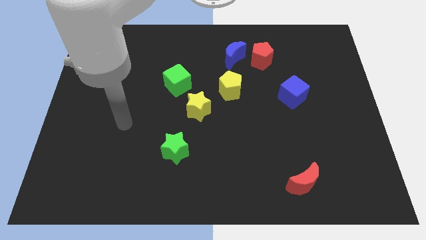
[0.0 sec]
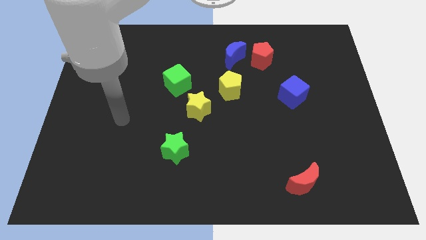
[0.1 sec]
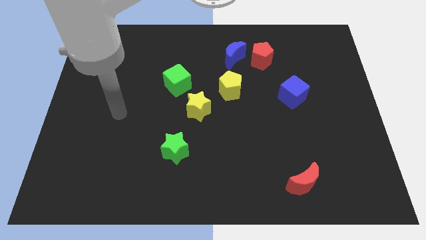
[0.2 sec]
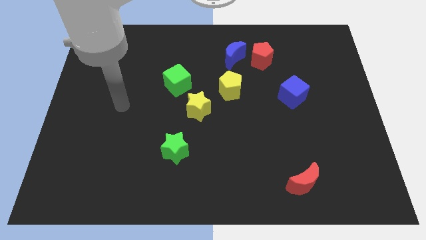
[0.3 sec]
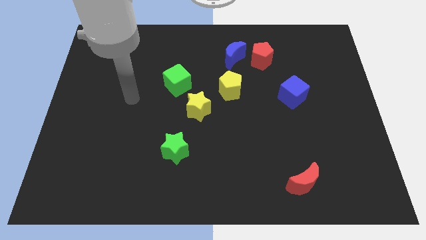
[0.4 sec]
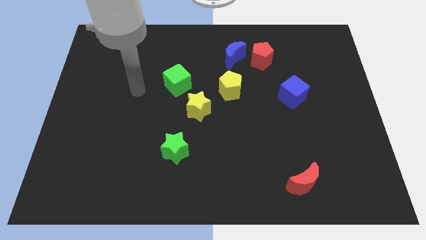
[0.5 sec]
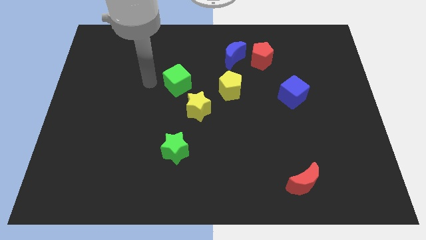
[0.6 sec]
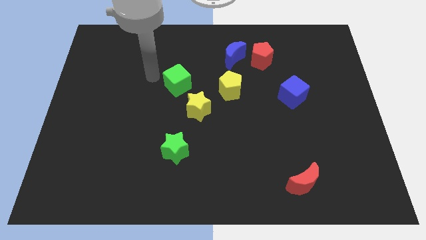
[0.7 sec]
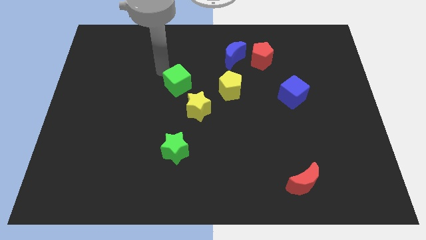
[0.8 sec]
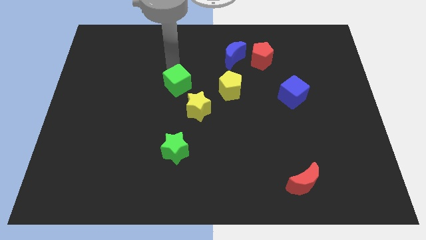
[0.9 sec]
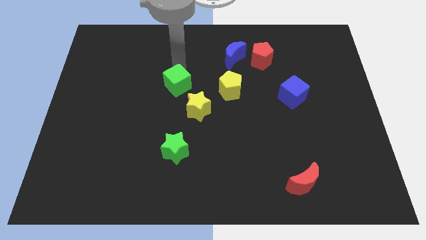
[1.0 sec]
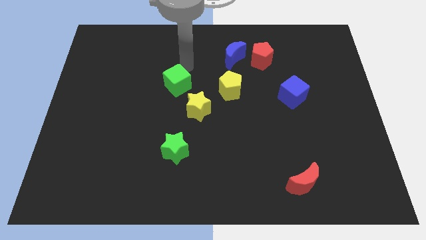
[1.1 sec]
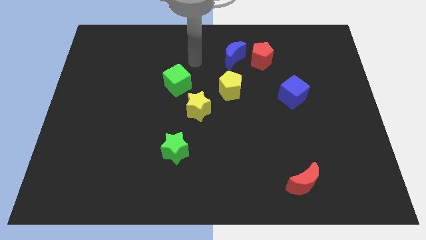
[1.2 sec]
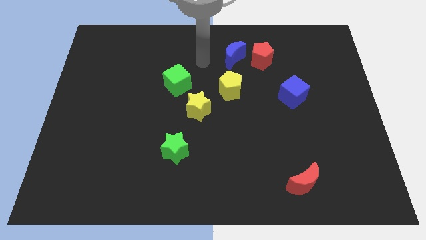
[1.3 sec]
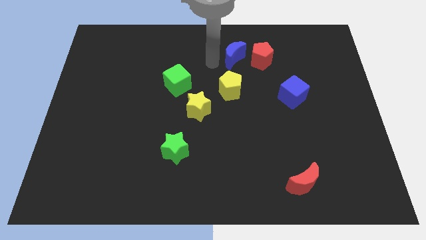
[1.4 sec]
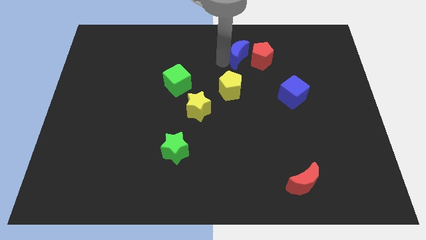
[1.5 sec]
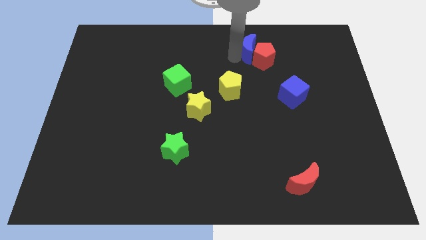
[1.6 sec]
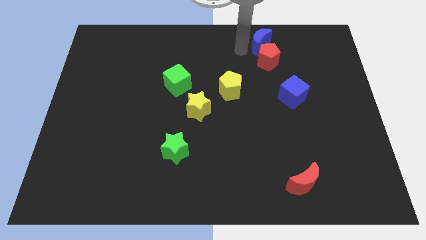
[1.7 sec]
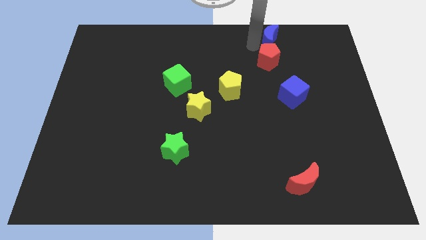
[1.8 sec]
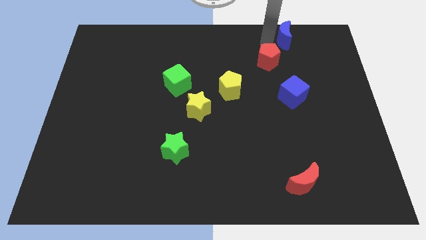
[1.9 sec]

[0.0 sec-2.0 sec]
move the red pentagon away from the blue moon

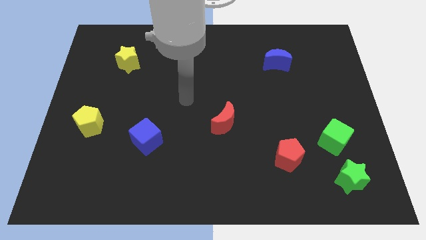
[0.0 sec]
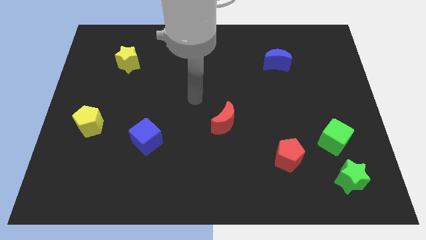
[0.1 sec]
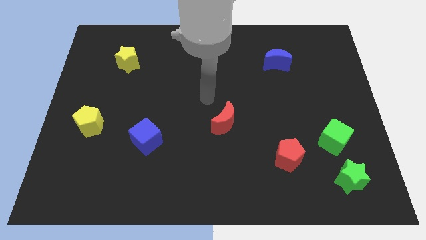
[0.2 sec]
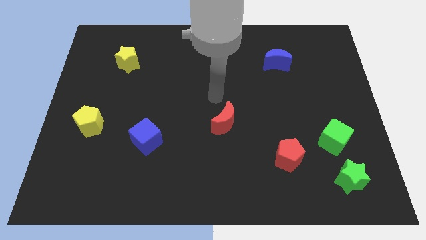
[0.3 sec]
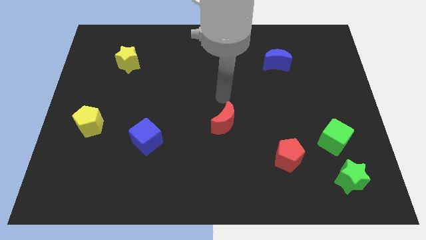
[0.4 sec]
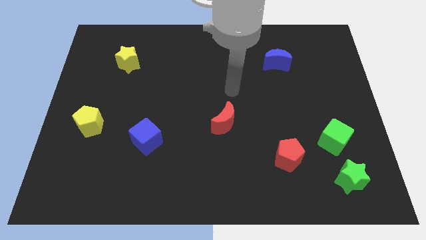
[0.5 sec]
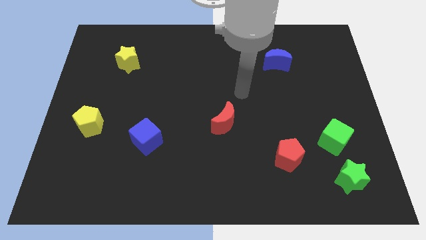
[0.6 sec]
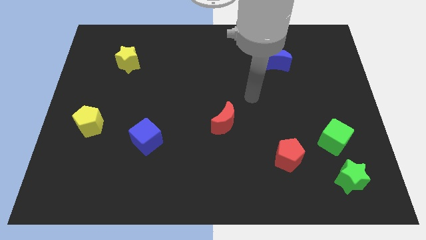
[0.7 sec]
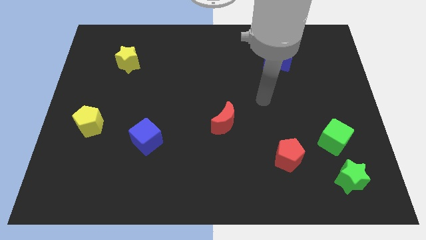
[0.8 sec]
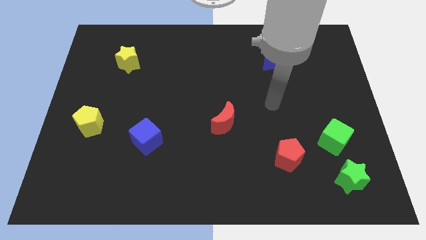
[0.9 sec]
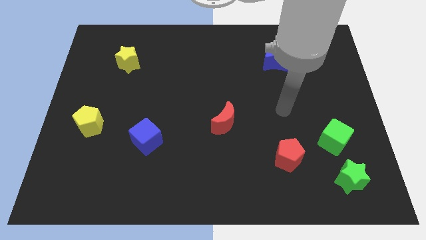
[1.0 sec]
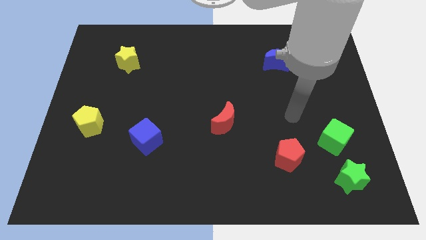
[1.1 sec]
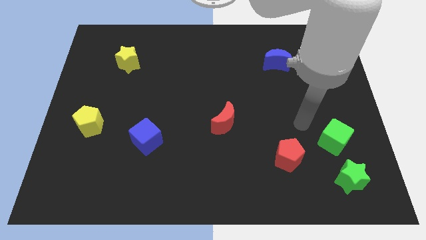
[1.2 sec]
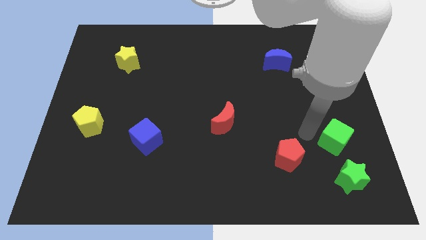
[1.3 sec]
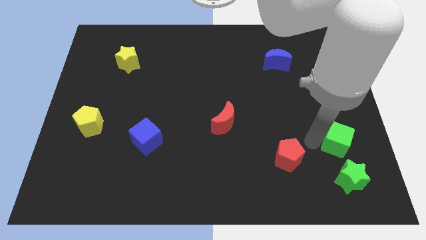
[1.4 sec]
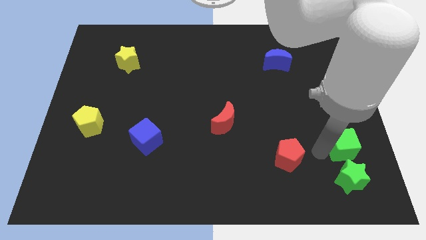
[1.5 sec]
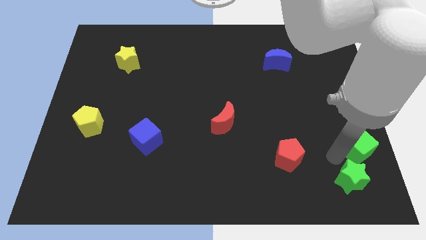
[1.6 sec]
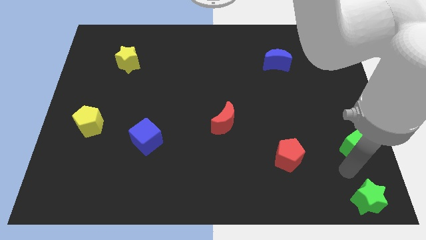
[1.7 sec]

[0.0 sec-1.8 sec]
pull the green cube apart from the green star

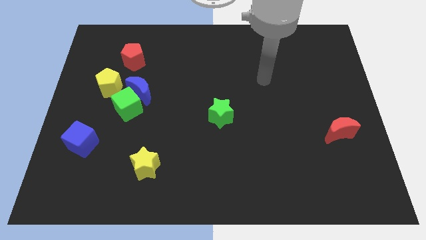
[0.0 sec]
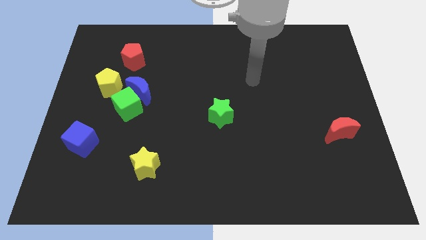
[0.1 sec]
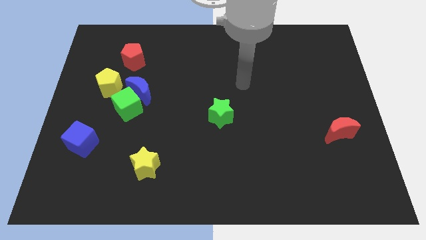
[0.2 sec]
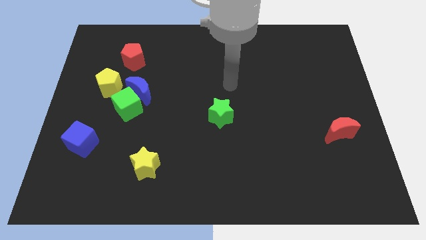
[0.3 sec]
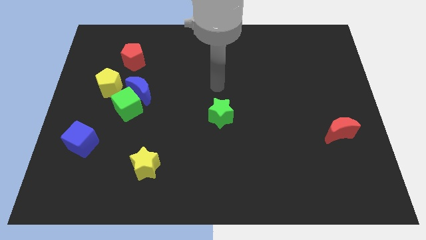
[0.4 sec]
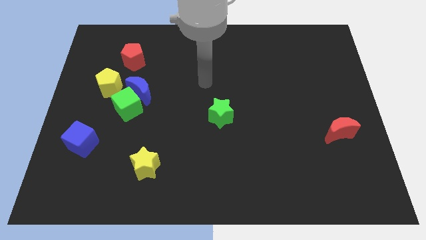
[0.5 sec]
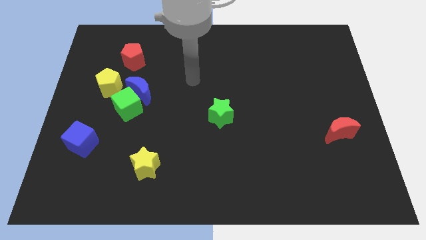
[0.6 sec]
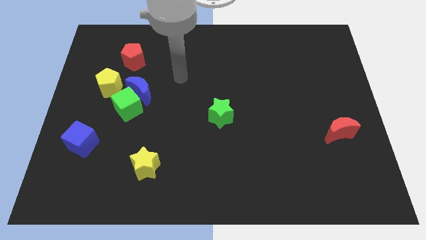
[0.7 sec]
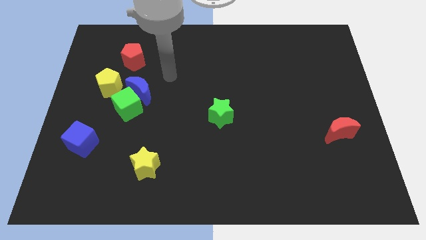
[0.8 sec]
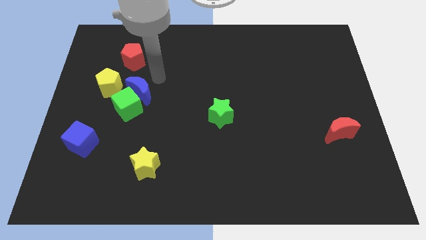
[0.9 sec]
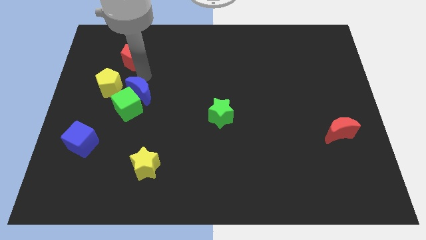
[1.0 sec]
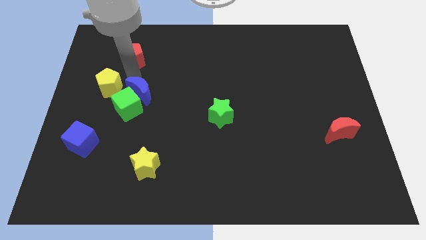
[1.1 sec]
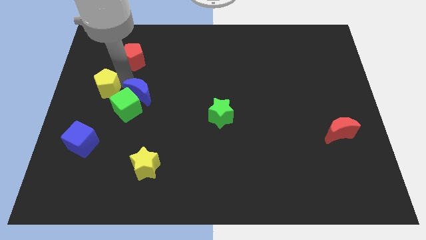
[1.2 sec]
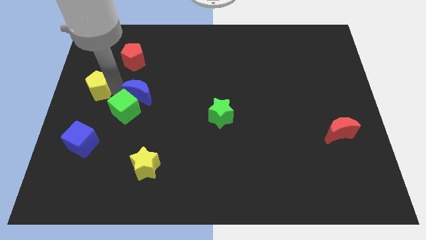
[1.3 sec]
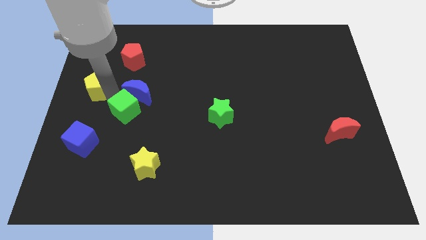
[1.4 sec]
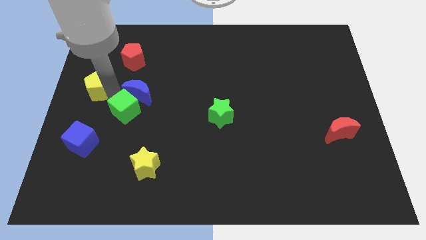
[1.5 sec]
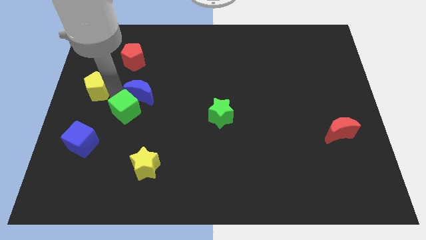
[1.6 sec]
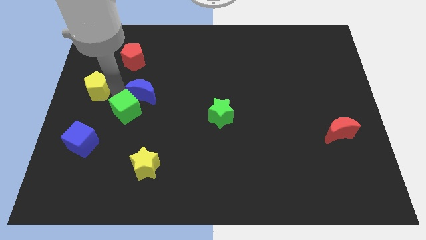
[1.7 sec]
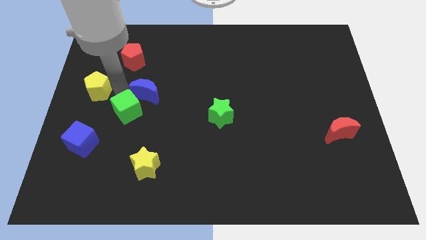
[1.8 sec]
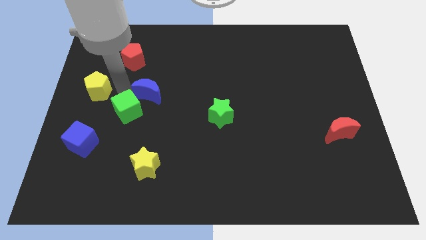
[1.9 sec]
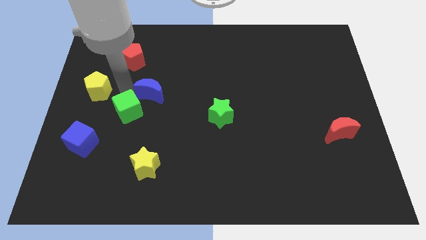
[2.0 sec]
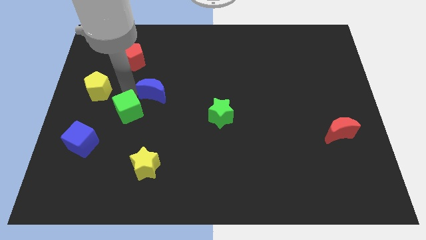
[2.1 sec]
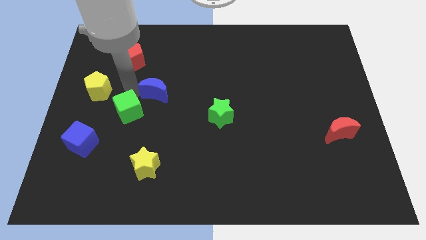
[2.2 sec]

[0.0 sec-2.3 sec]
separate the blue moon from the green cube and yellow pentagon

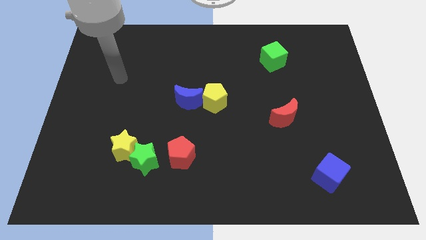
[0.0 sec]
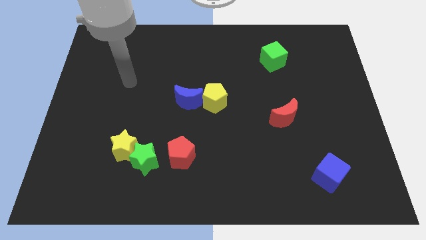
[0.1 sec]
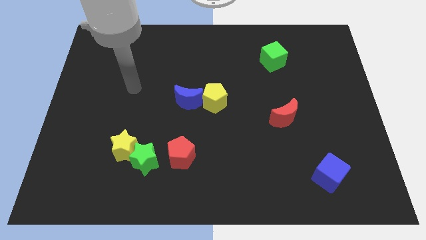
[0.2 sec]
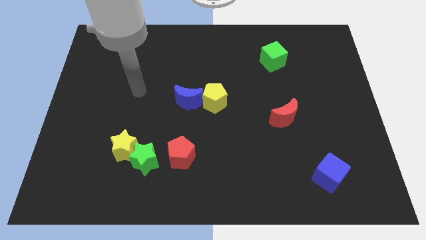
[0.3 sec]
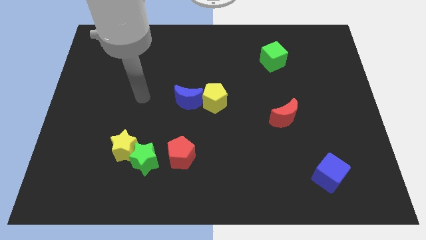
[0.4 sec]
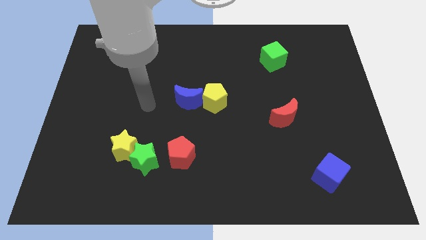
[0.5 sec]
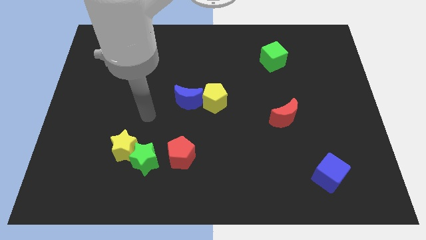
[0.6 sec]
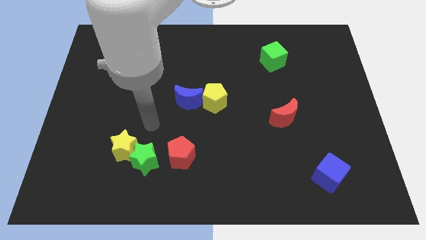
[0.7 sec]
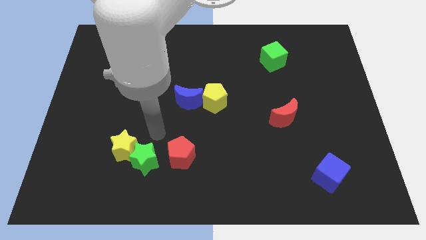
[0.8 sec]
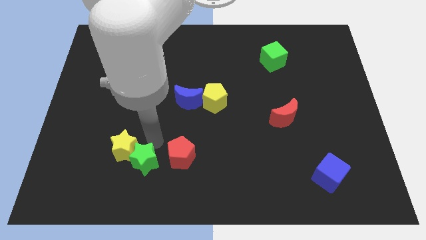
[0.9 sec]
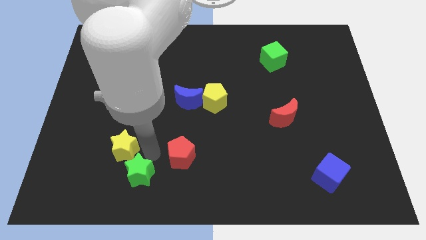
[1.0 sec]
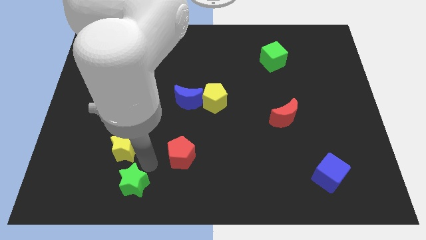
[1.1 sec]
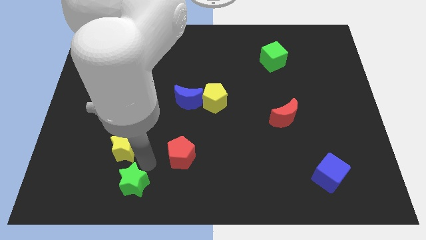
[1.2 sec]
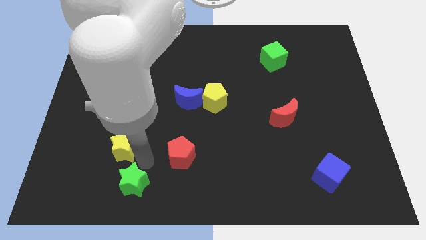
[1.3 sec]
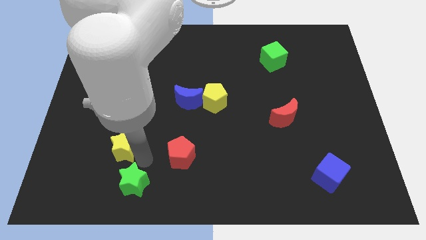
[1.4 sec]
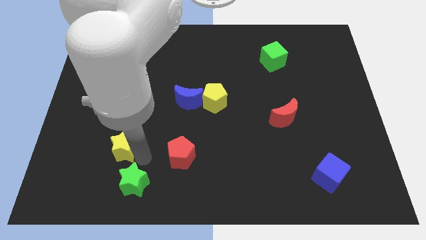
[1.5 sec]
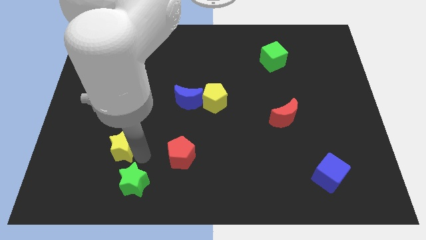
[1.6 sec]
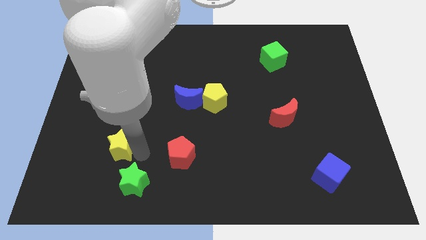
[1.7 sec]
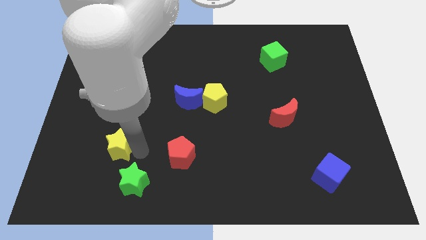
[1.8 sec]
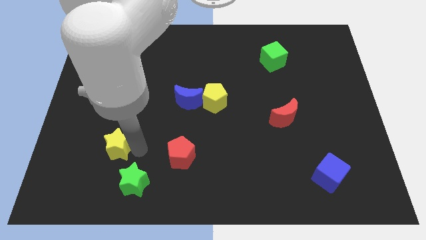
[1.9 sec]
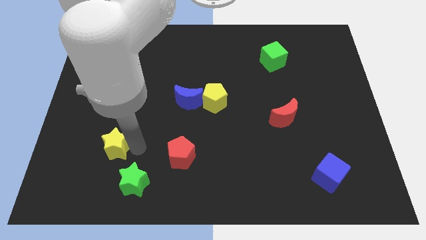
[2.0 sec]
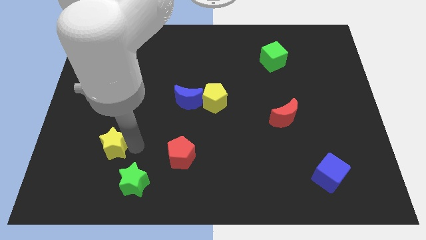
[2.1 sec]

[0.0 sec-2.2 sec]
separate the yellow star from the green star

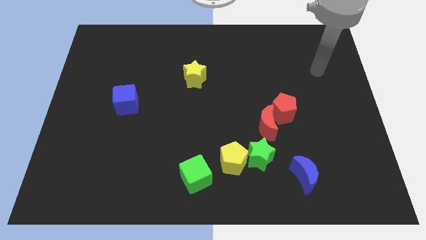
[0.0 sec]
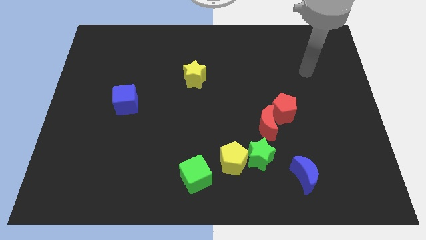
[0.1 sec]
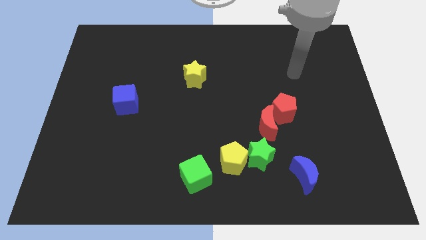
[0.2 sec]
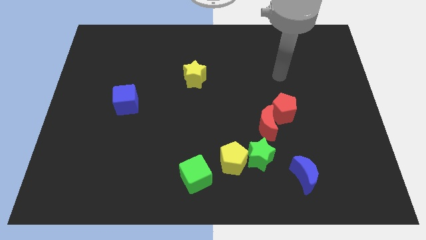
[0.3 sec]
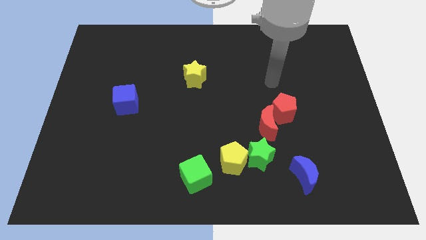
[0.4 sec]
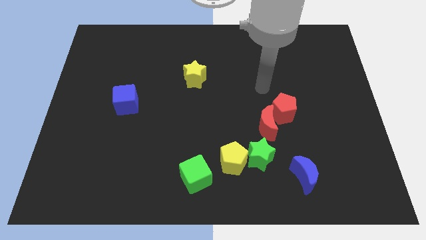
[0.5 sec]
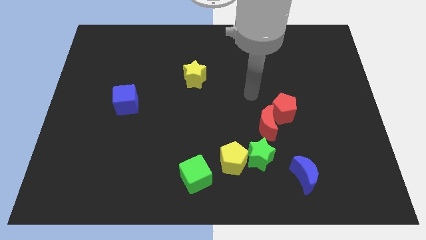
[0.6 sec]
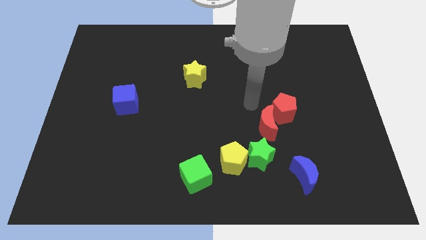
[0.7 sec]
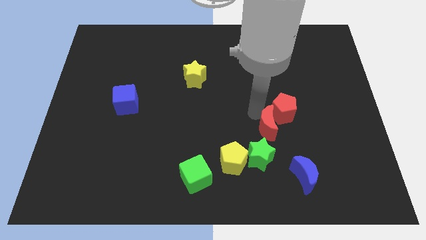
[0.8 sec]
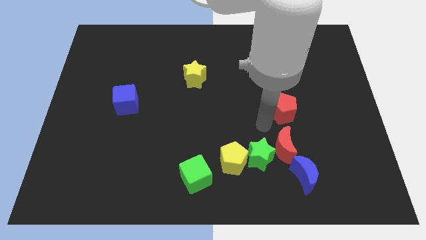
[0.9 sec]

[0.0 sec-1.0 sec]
move the red pentagon away from the red moon
